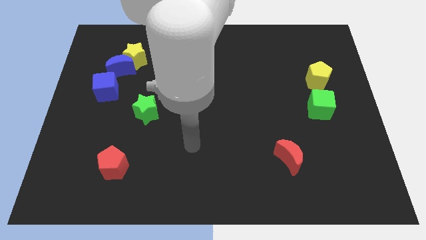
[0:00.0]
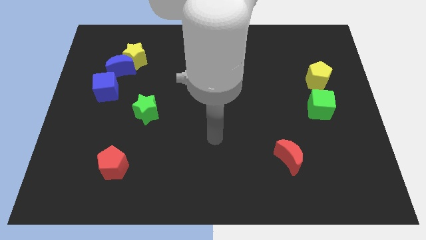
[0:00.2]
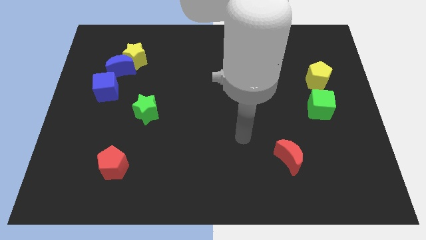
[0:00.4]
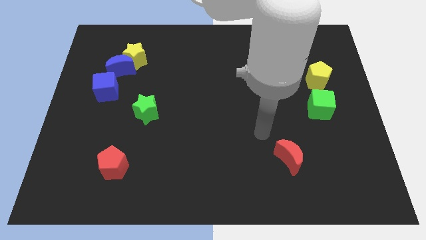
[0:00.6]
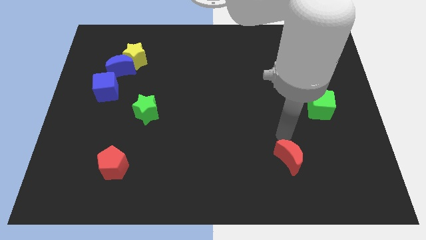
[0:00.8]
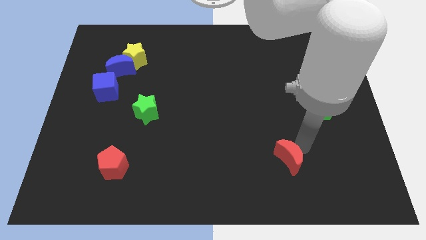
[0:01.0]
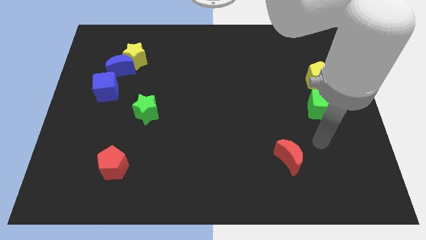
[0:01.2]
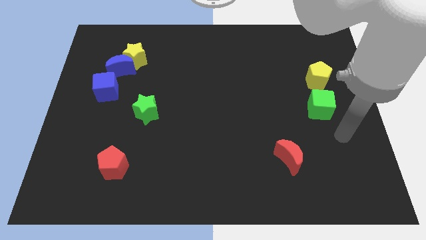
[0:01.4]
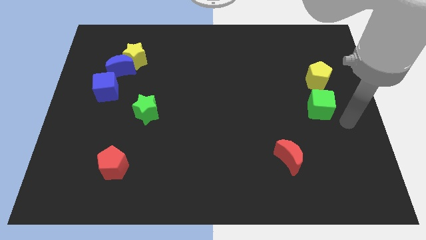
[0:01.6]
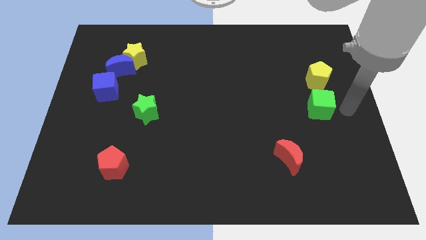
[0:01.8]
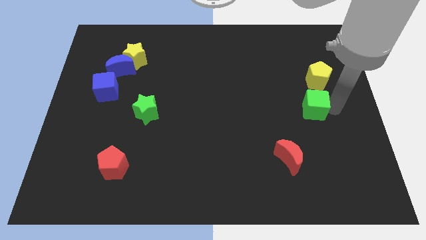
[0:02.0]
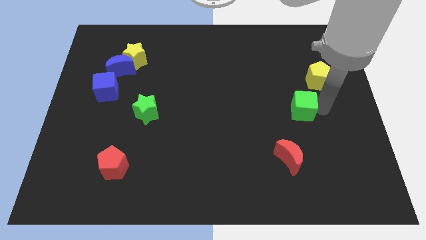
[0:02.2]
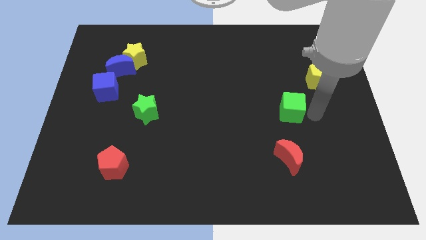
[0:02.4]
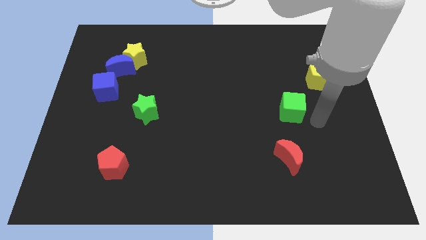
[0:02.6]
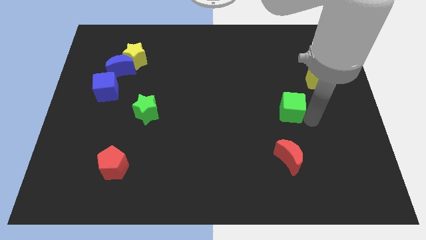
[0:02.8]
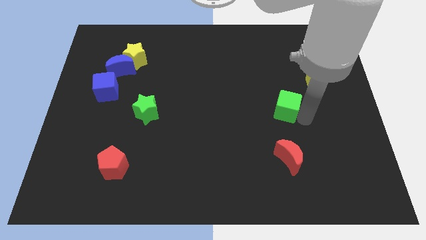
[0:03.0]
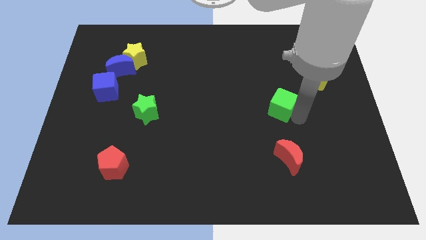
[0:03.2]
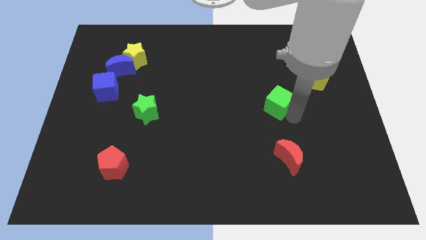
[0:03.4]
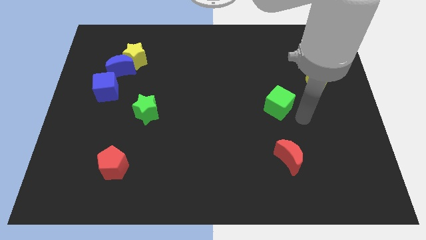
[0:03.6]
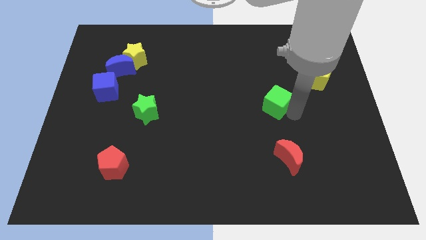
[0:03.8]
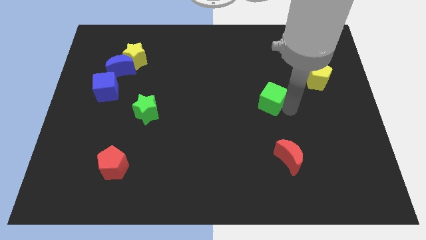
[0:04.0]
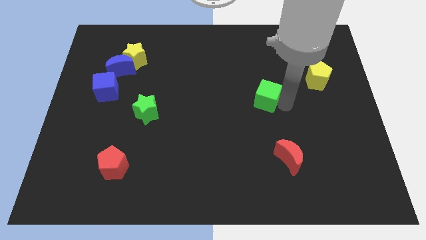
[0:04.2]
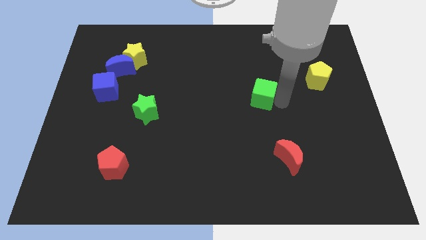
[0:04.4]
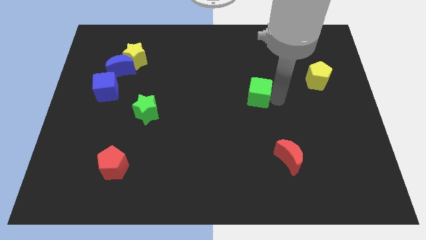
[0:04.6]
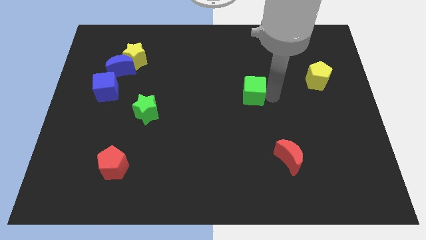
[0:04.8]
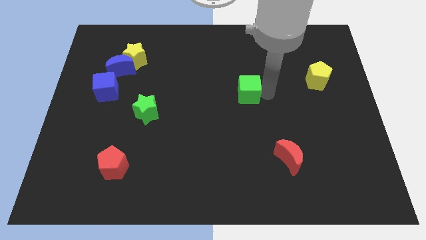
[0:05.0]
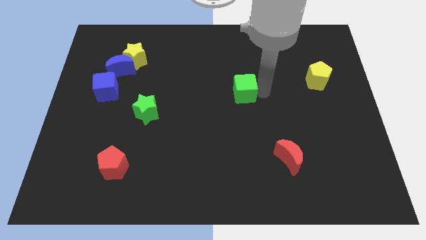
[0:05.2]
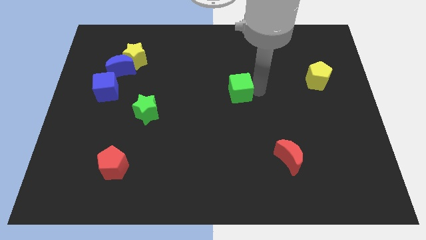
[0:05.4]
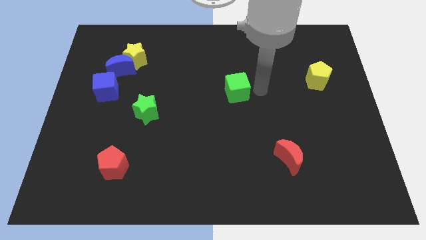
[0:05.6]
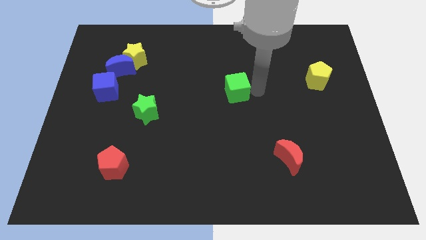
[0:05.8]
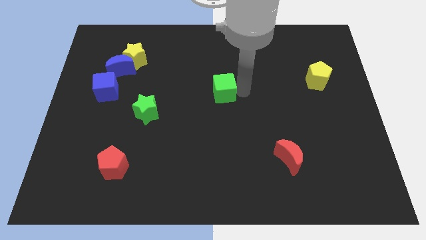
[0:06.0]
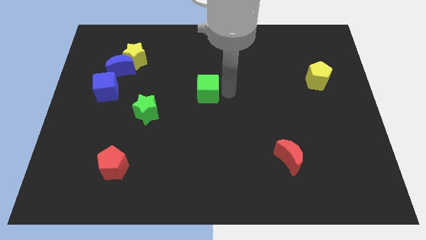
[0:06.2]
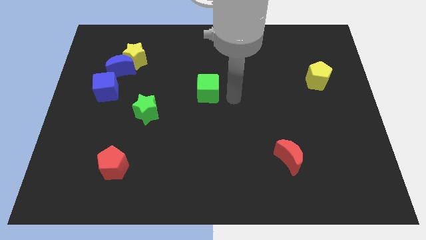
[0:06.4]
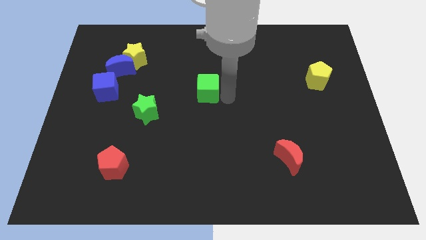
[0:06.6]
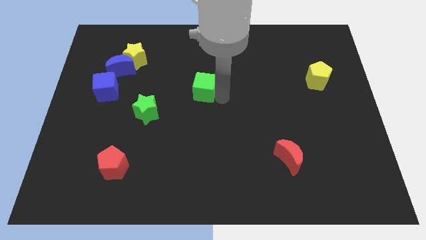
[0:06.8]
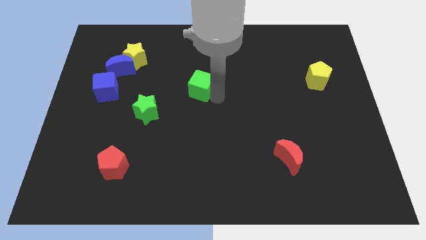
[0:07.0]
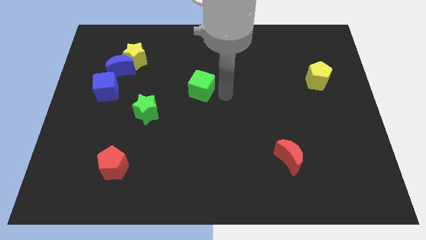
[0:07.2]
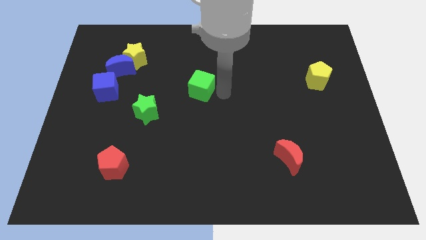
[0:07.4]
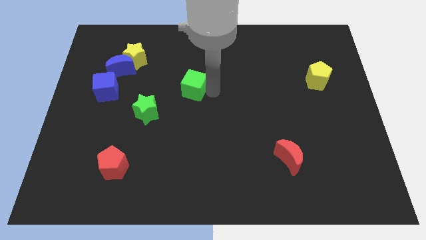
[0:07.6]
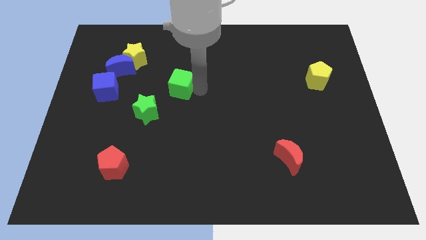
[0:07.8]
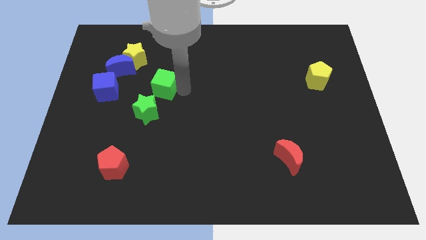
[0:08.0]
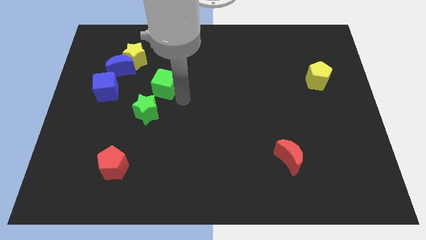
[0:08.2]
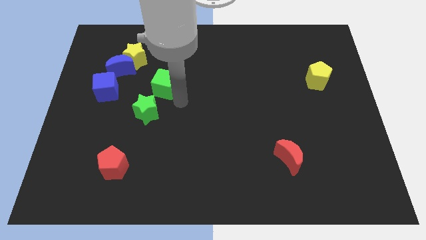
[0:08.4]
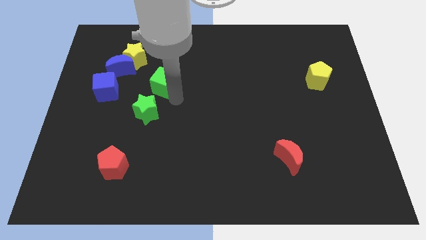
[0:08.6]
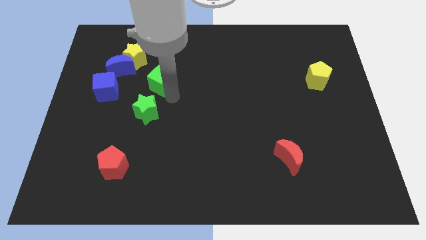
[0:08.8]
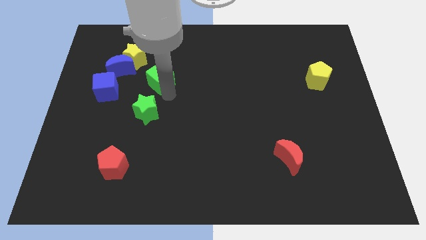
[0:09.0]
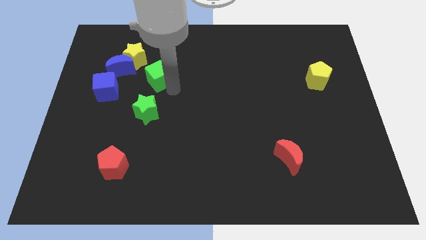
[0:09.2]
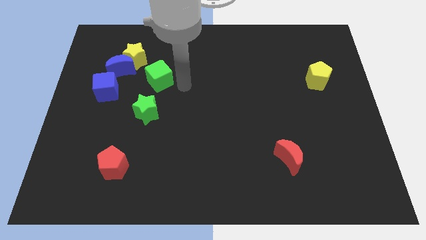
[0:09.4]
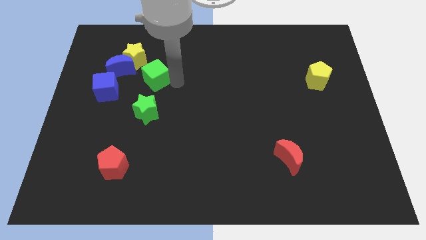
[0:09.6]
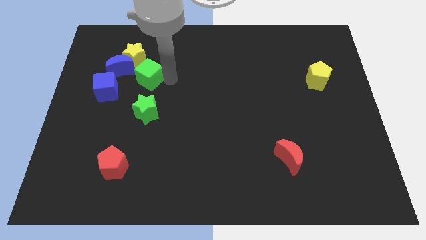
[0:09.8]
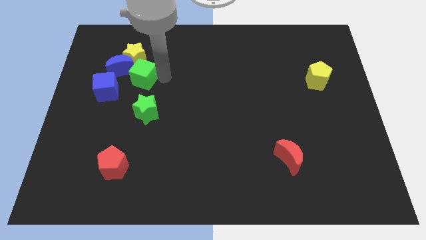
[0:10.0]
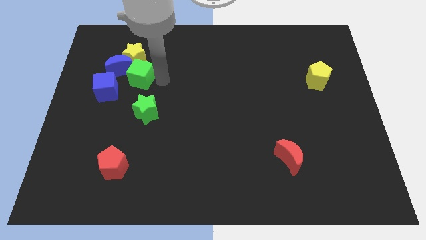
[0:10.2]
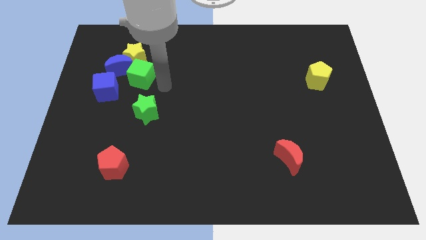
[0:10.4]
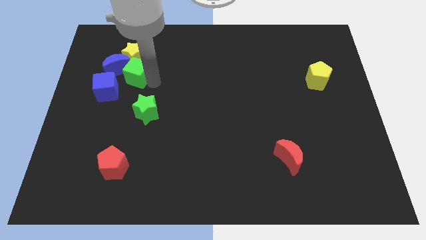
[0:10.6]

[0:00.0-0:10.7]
put the green cube close to the blue moon

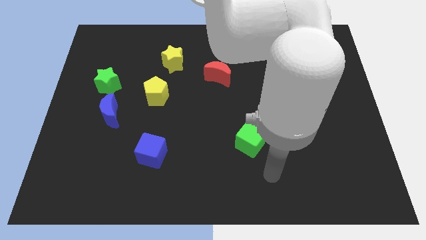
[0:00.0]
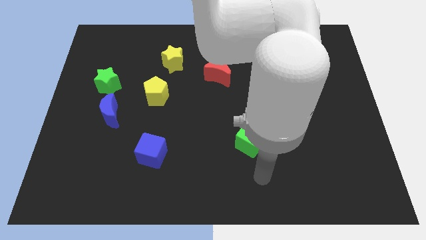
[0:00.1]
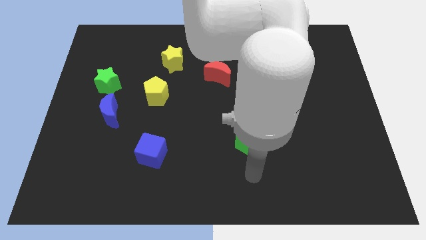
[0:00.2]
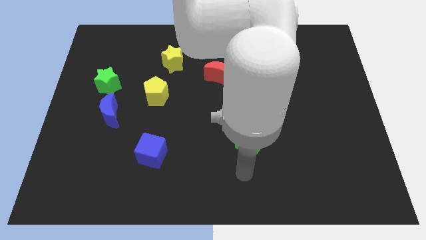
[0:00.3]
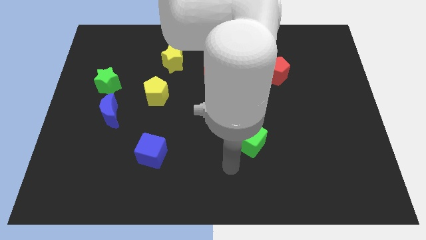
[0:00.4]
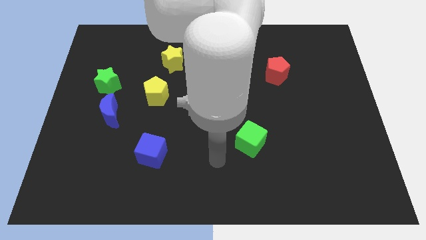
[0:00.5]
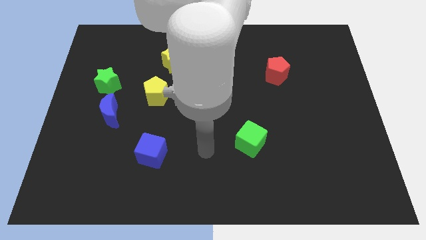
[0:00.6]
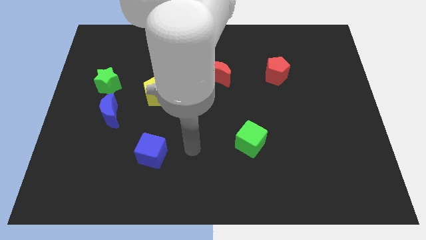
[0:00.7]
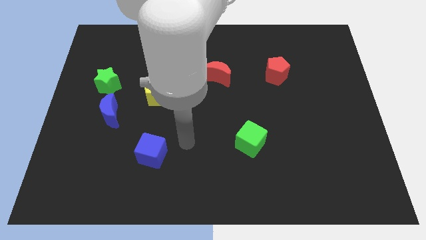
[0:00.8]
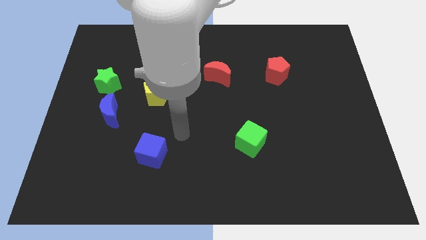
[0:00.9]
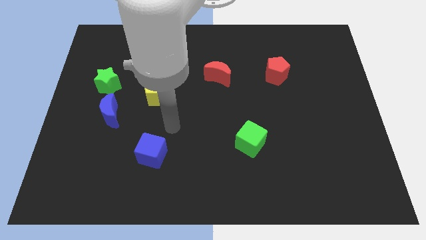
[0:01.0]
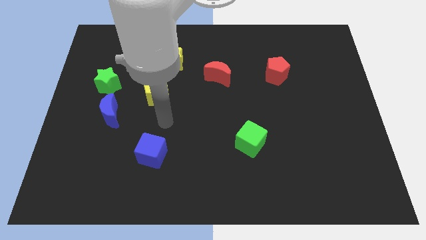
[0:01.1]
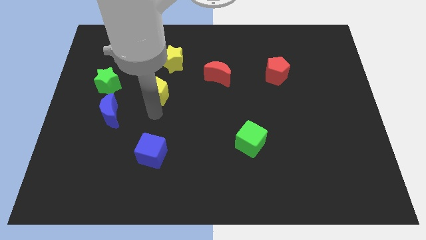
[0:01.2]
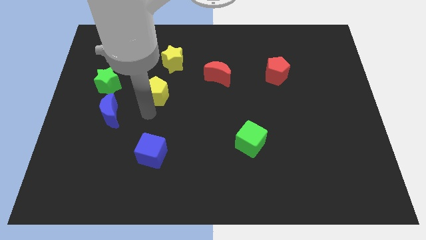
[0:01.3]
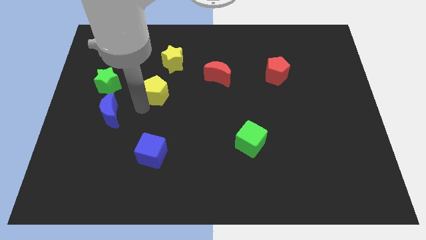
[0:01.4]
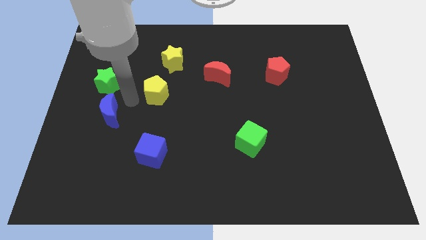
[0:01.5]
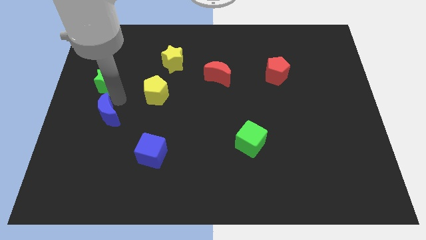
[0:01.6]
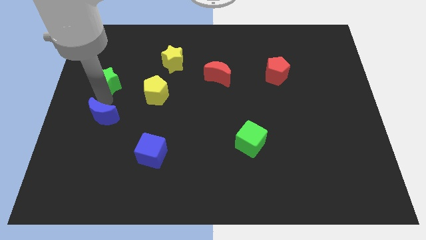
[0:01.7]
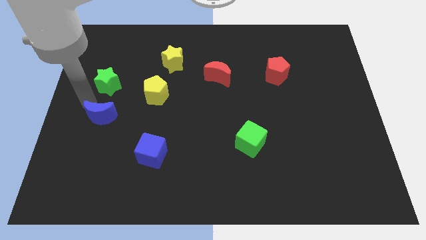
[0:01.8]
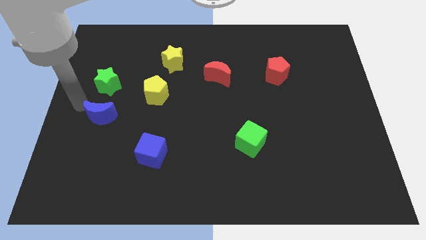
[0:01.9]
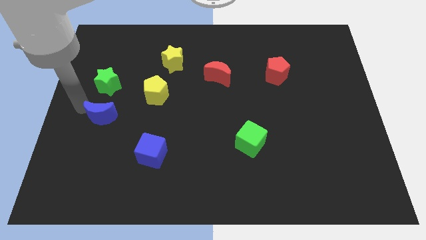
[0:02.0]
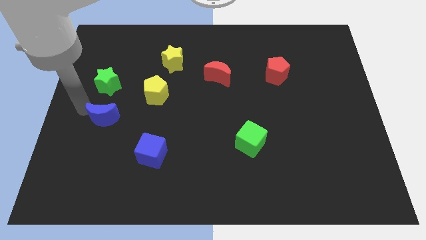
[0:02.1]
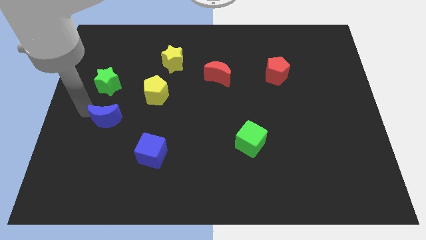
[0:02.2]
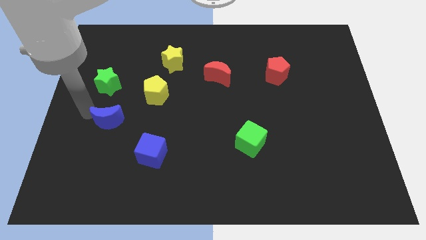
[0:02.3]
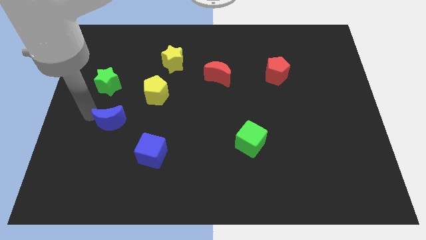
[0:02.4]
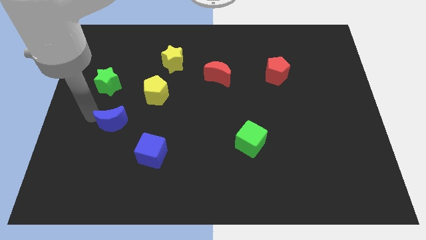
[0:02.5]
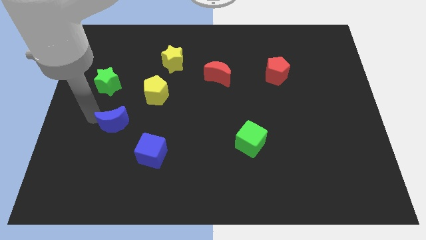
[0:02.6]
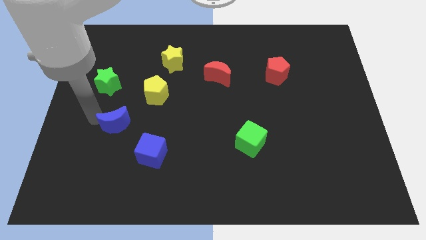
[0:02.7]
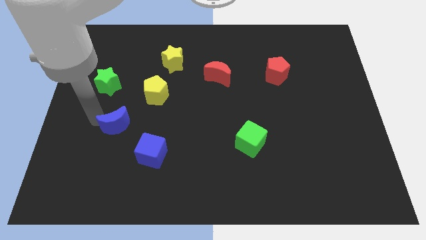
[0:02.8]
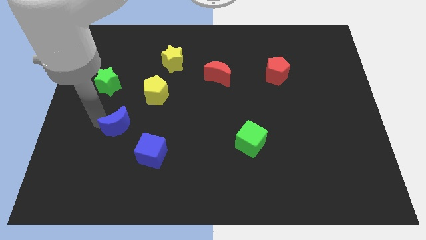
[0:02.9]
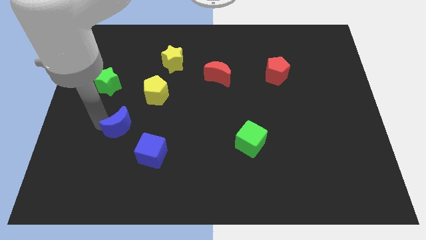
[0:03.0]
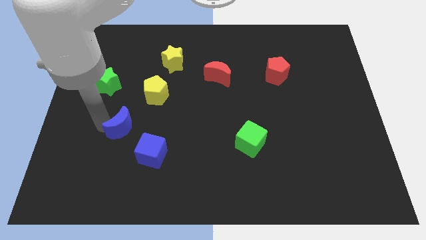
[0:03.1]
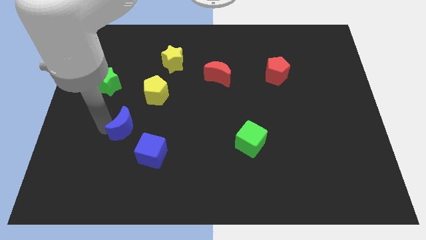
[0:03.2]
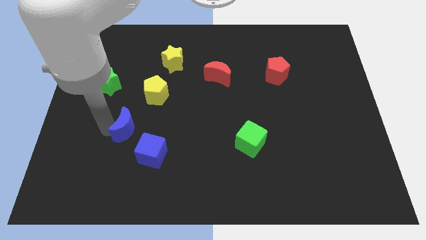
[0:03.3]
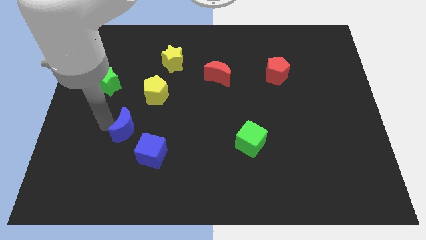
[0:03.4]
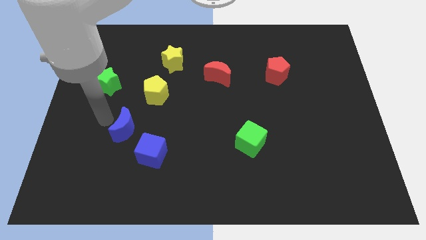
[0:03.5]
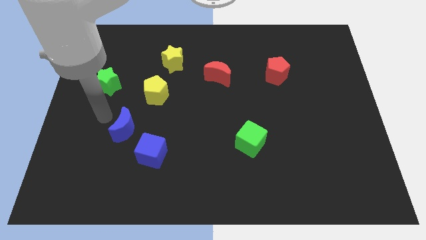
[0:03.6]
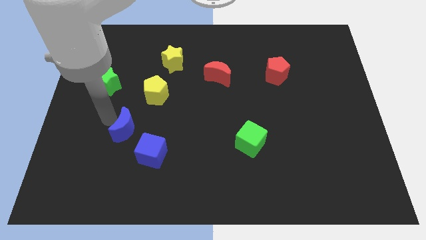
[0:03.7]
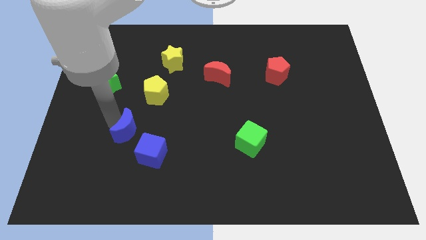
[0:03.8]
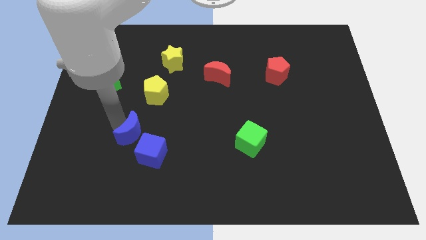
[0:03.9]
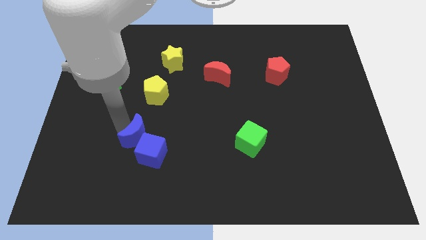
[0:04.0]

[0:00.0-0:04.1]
slide the blue moon close to the blue cube
